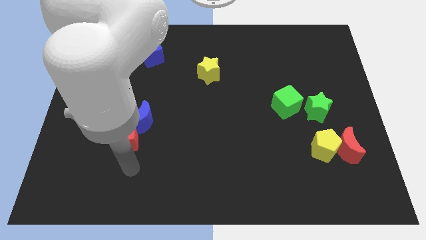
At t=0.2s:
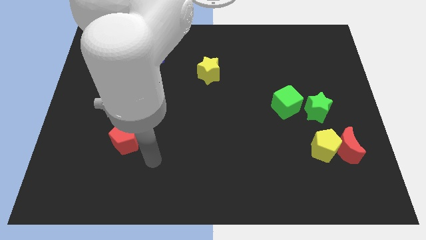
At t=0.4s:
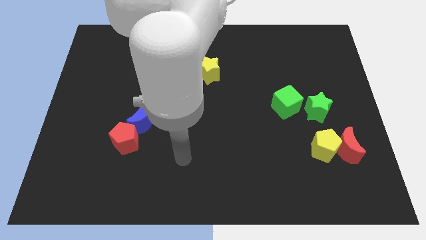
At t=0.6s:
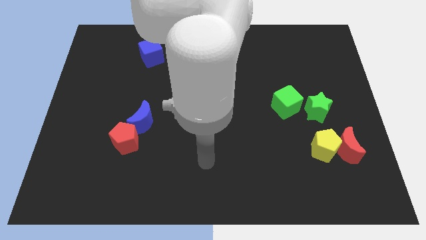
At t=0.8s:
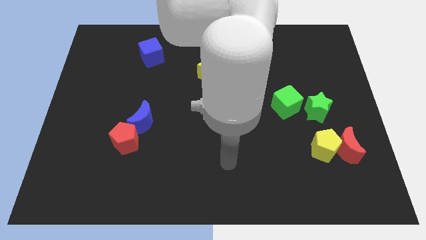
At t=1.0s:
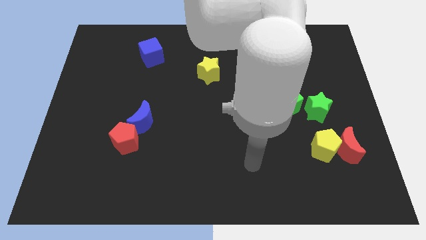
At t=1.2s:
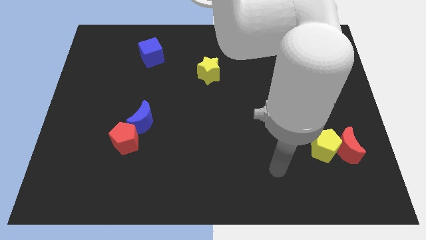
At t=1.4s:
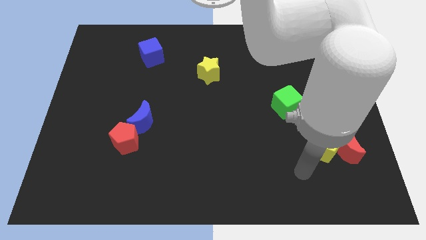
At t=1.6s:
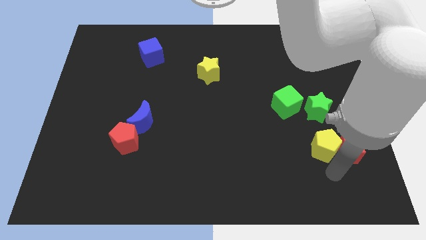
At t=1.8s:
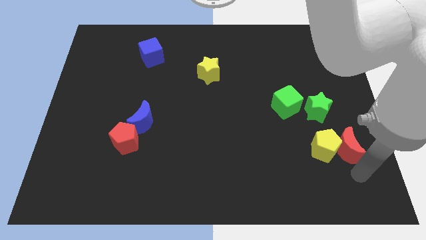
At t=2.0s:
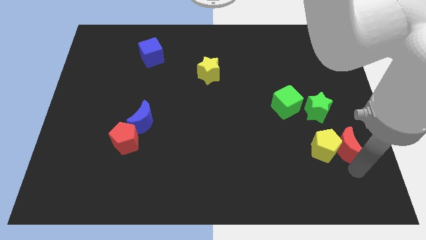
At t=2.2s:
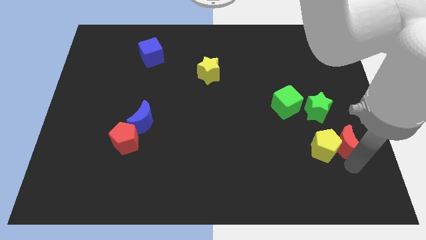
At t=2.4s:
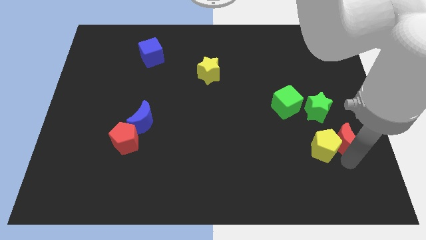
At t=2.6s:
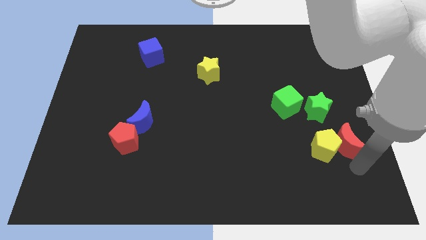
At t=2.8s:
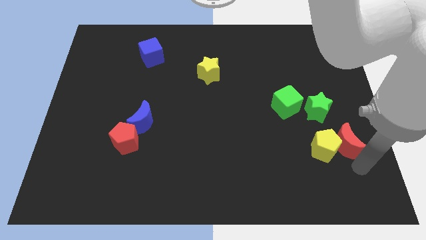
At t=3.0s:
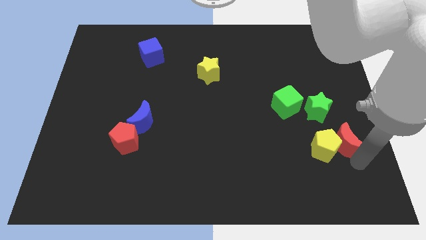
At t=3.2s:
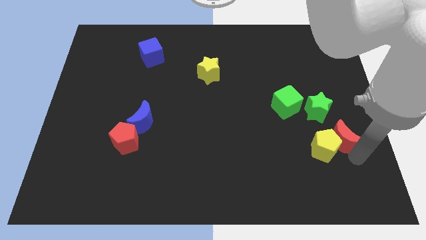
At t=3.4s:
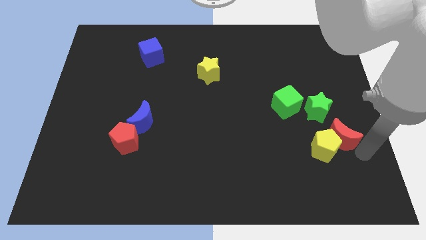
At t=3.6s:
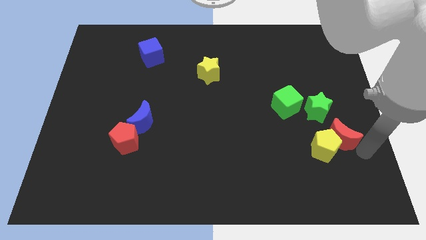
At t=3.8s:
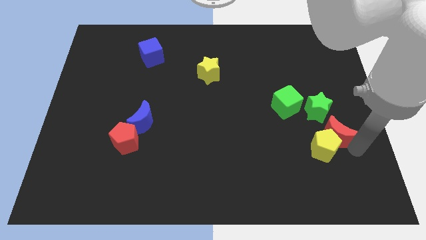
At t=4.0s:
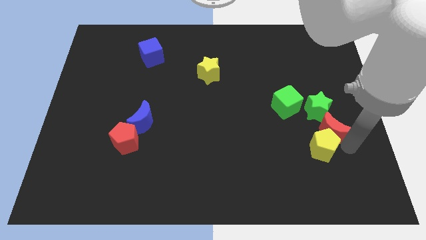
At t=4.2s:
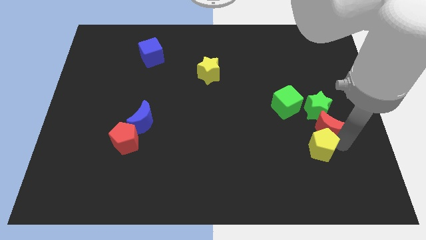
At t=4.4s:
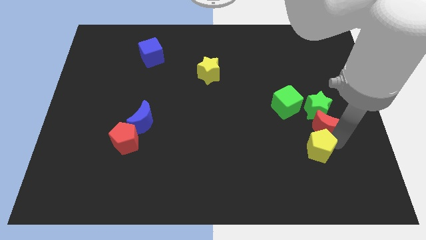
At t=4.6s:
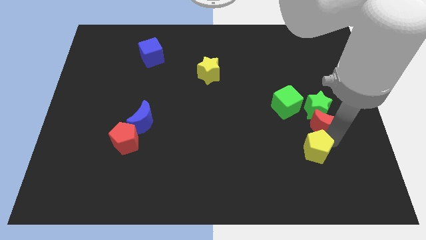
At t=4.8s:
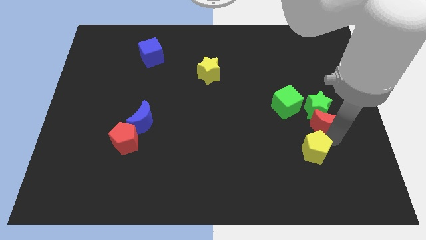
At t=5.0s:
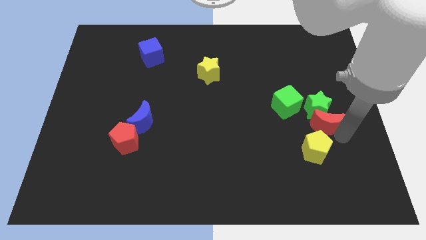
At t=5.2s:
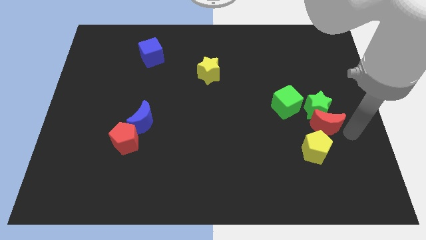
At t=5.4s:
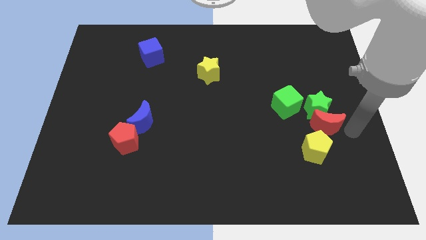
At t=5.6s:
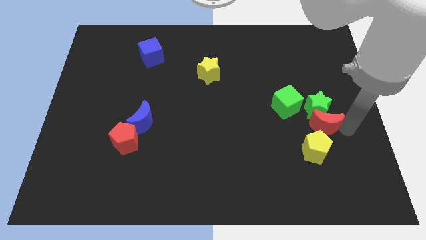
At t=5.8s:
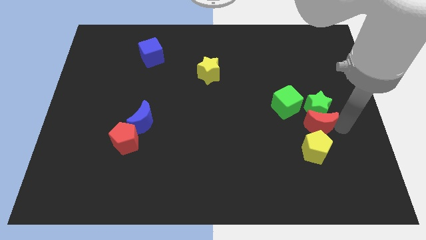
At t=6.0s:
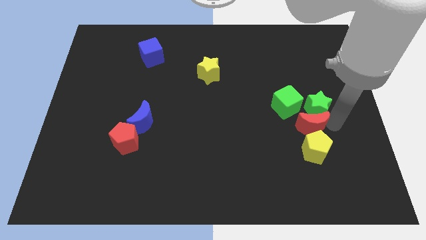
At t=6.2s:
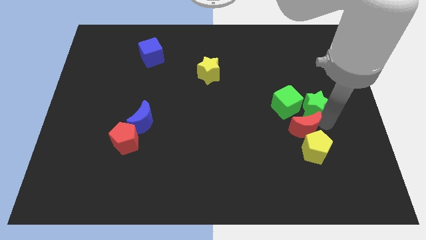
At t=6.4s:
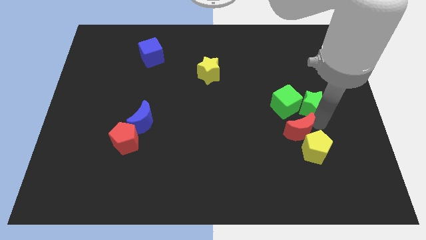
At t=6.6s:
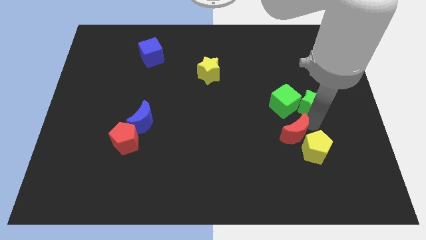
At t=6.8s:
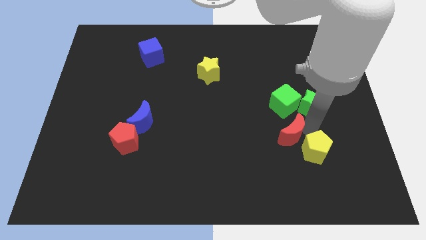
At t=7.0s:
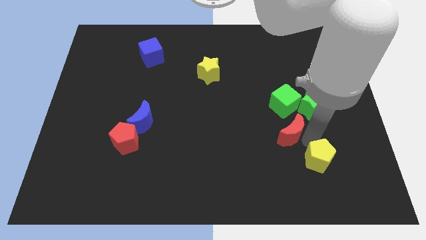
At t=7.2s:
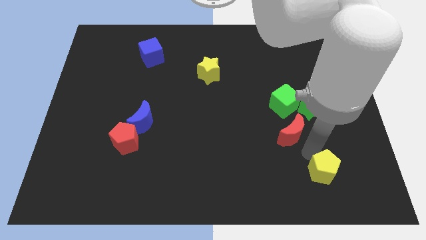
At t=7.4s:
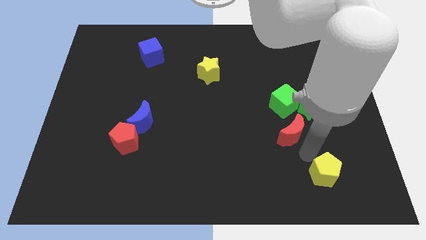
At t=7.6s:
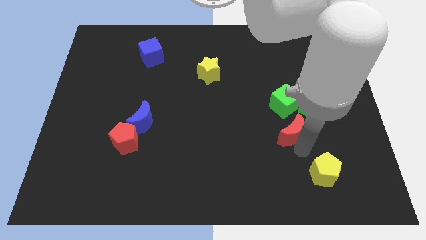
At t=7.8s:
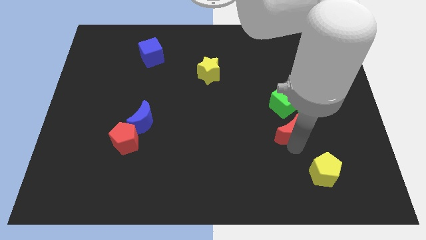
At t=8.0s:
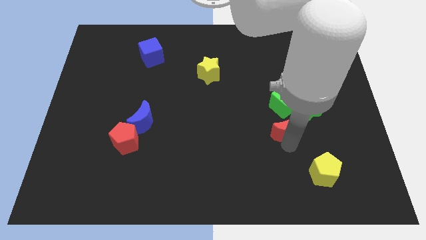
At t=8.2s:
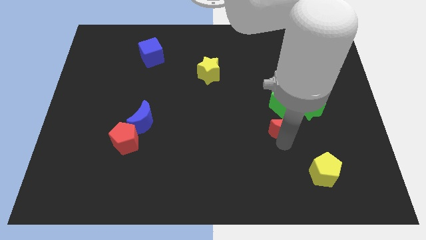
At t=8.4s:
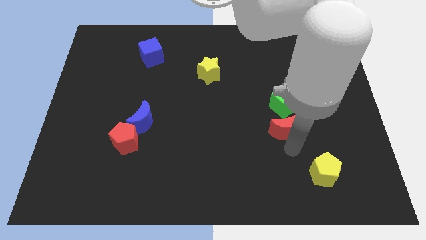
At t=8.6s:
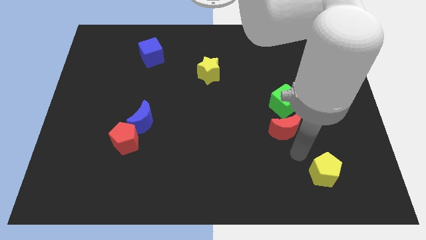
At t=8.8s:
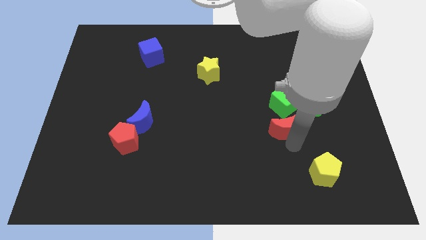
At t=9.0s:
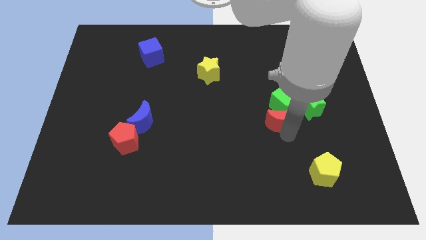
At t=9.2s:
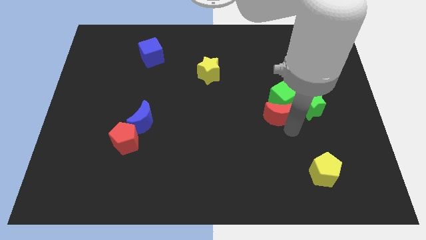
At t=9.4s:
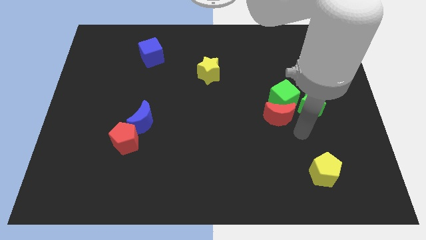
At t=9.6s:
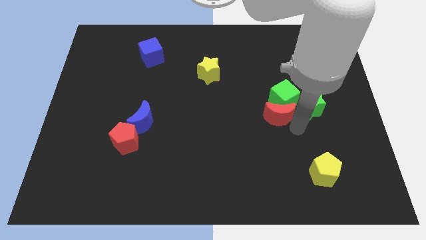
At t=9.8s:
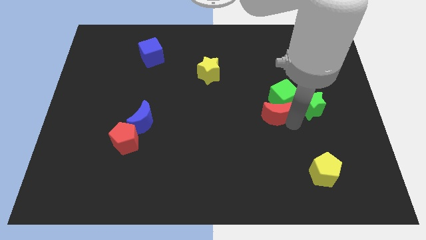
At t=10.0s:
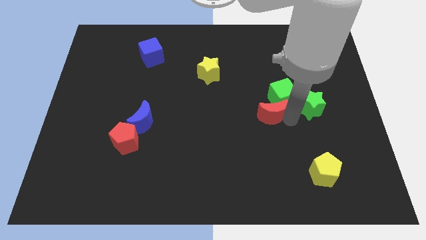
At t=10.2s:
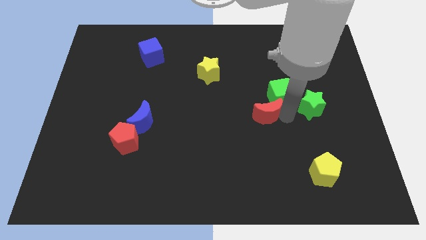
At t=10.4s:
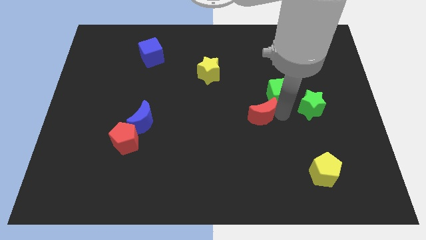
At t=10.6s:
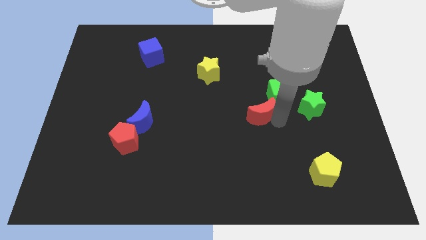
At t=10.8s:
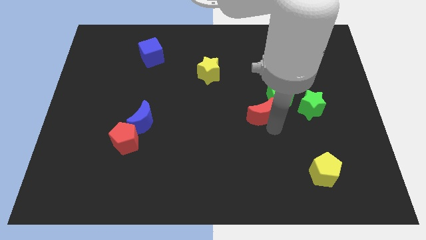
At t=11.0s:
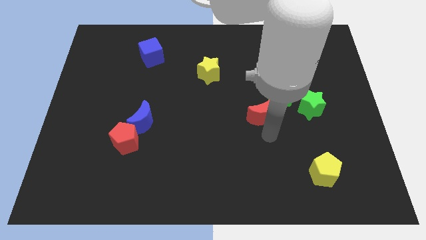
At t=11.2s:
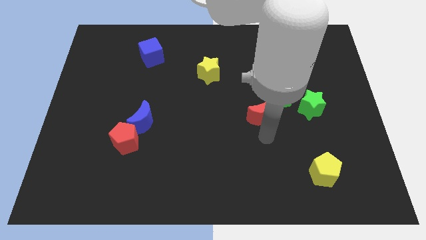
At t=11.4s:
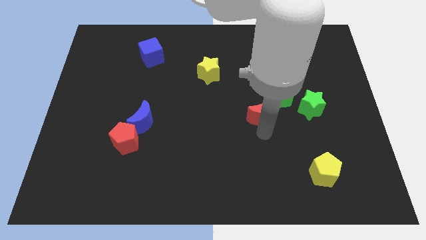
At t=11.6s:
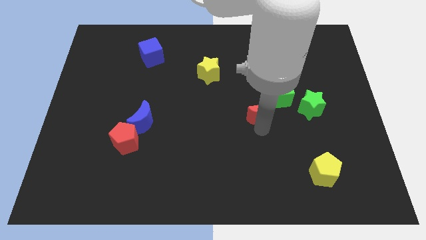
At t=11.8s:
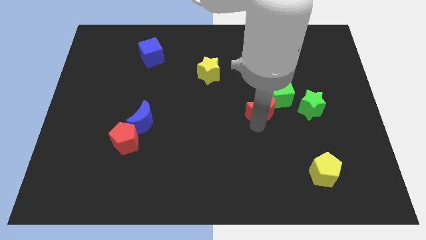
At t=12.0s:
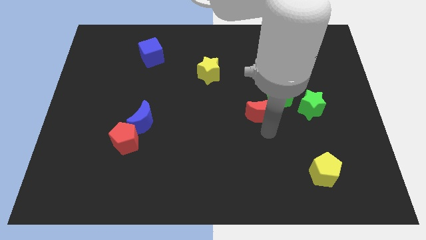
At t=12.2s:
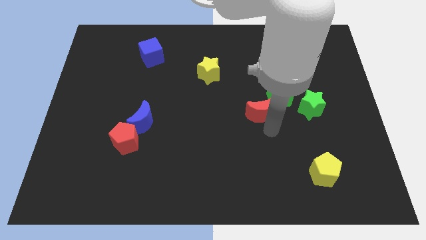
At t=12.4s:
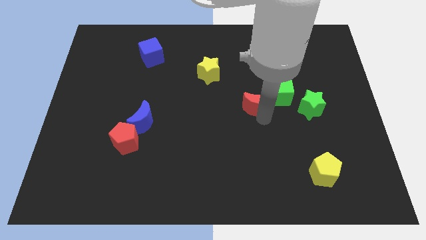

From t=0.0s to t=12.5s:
slide the red moon up and left diagonally

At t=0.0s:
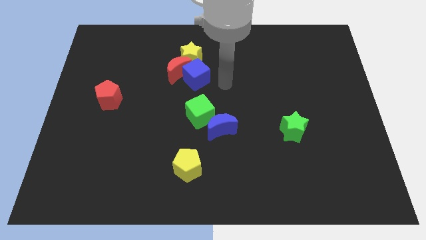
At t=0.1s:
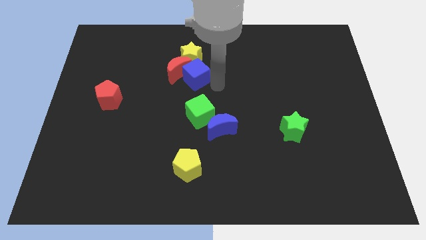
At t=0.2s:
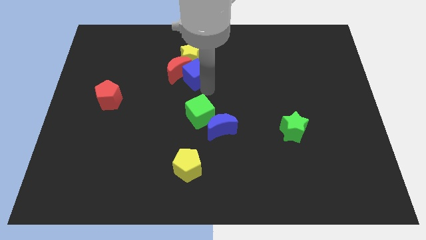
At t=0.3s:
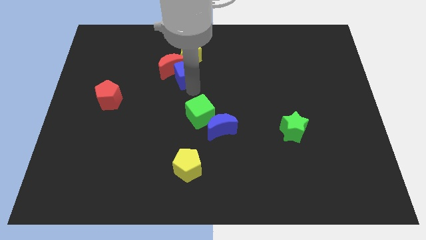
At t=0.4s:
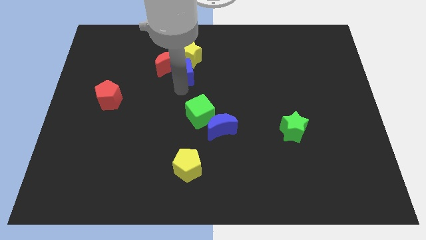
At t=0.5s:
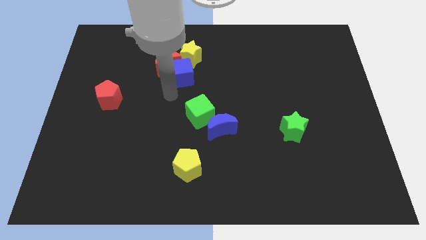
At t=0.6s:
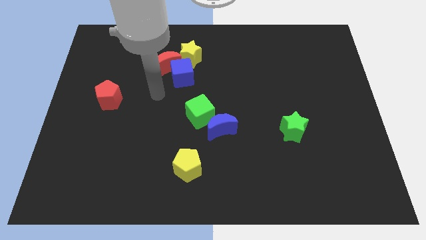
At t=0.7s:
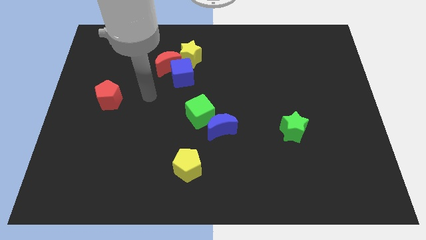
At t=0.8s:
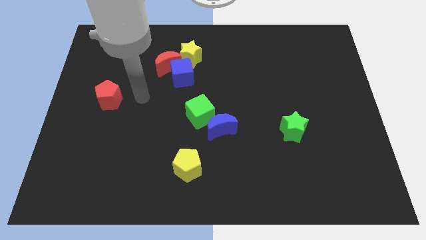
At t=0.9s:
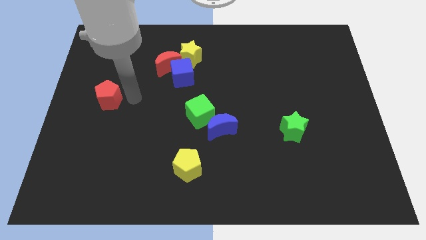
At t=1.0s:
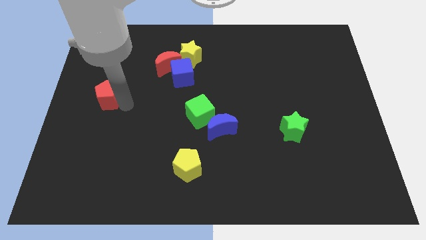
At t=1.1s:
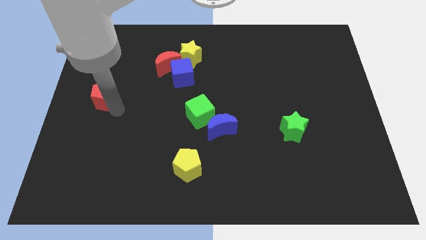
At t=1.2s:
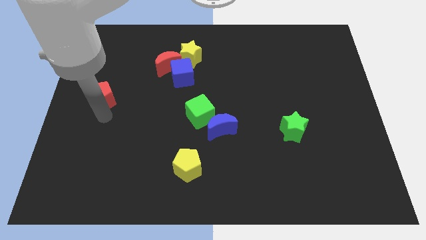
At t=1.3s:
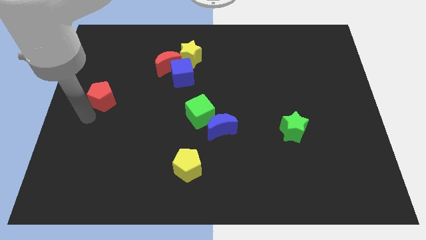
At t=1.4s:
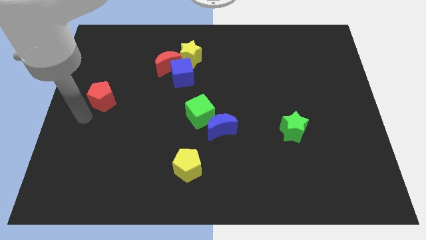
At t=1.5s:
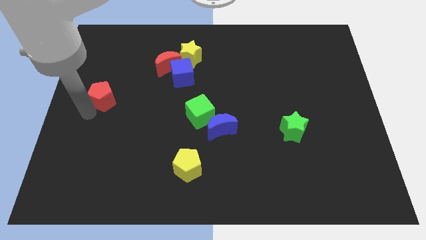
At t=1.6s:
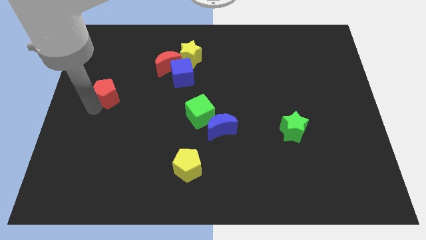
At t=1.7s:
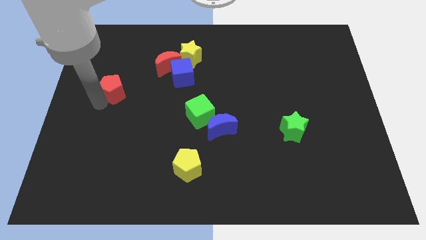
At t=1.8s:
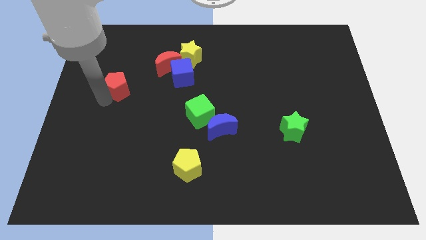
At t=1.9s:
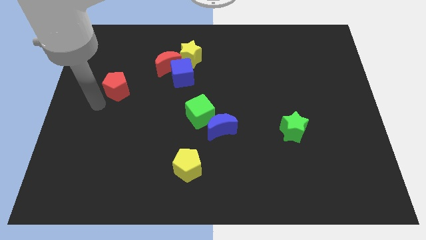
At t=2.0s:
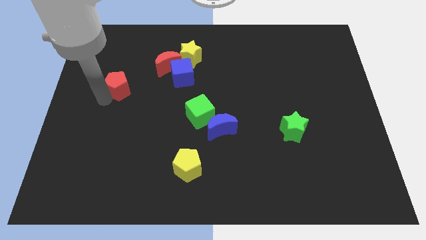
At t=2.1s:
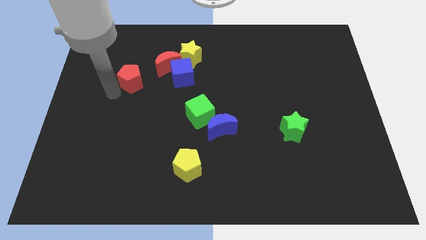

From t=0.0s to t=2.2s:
move the red pentagon upwards and right diagonally a bit
